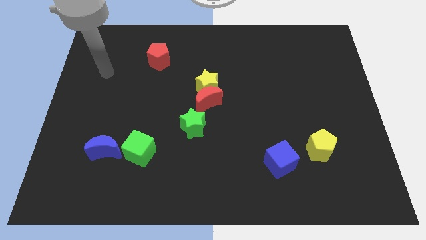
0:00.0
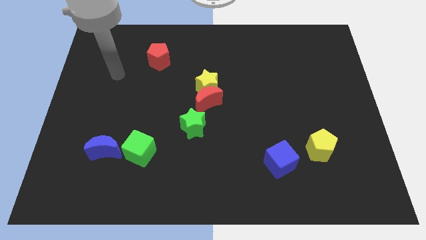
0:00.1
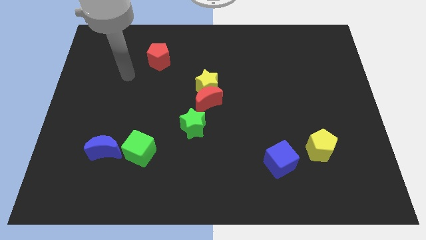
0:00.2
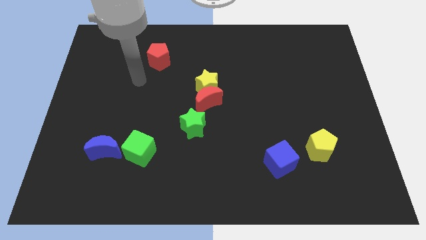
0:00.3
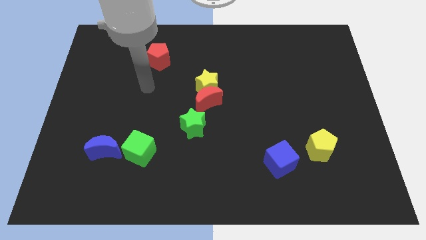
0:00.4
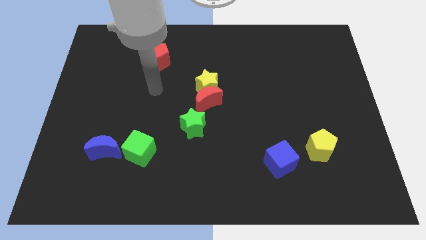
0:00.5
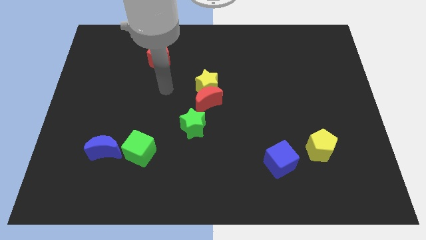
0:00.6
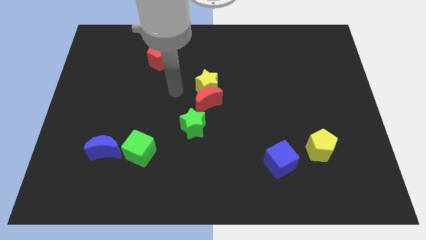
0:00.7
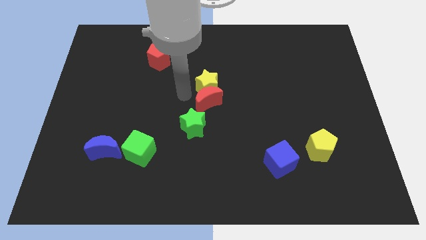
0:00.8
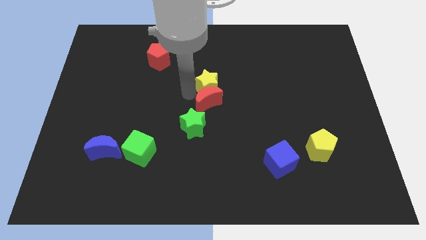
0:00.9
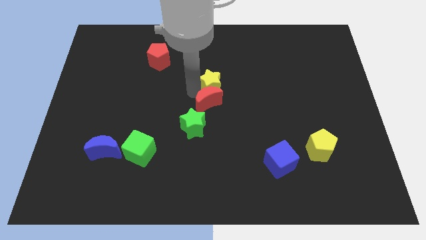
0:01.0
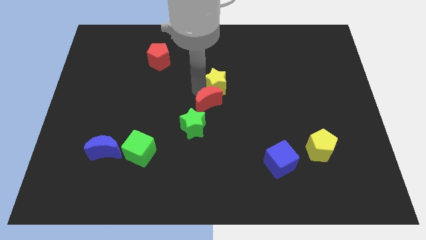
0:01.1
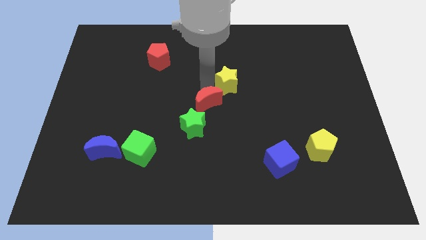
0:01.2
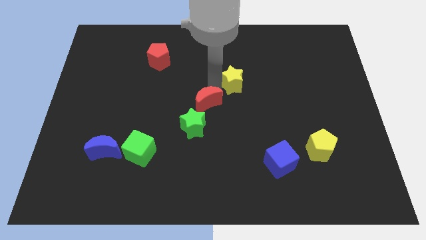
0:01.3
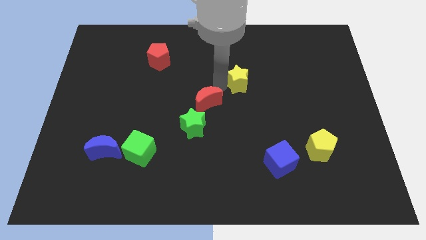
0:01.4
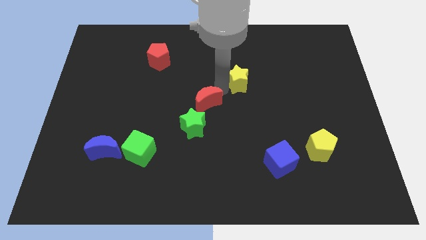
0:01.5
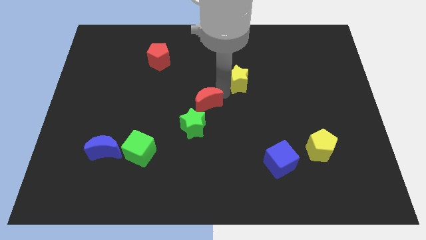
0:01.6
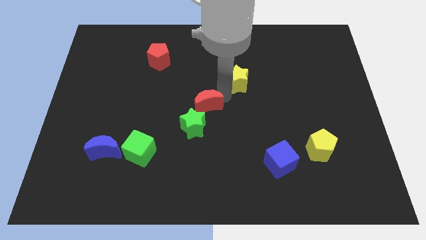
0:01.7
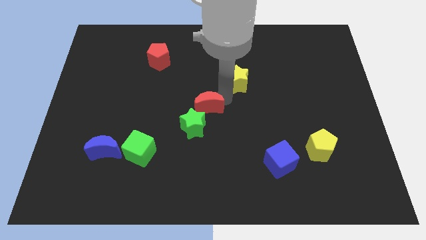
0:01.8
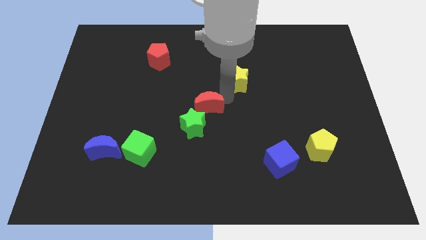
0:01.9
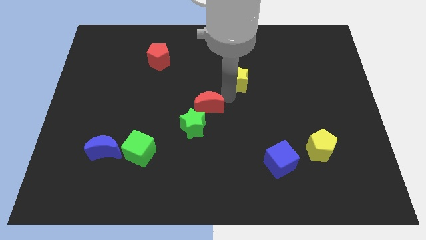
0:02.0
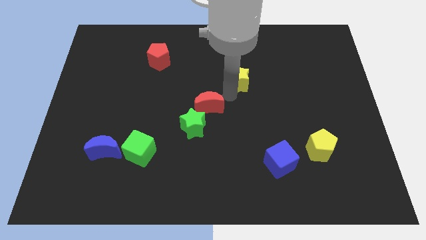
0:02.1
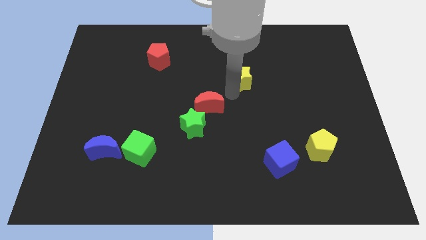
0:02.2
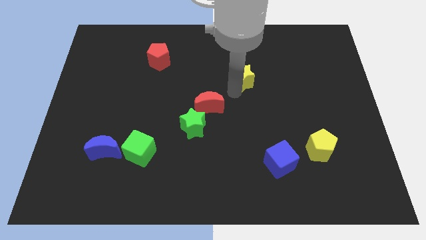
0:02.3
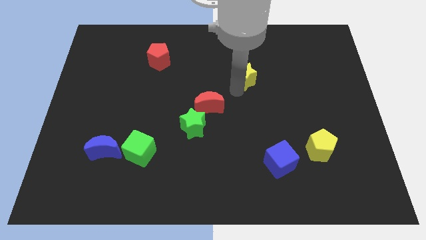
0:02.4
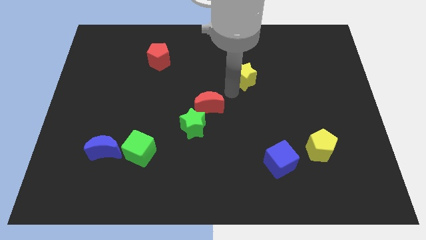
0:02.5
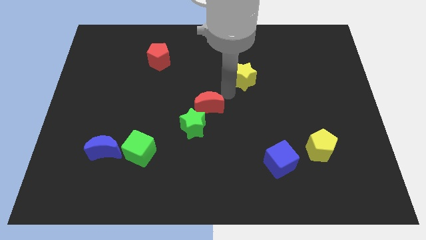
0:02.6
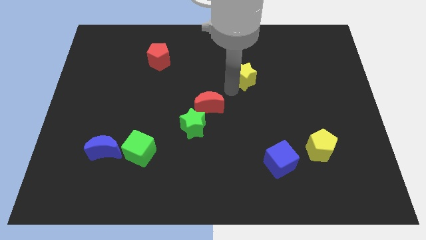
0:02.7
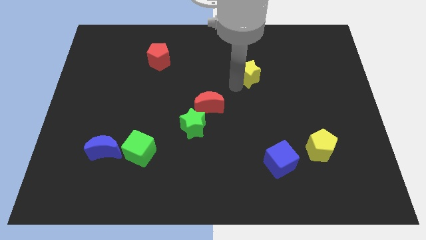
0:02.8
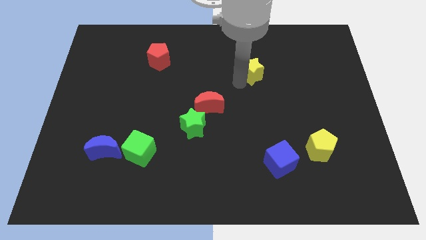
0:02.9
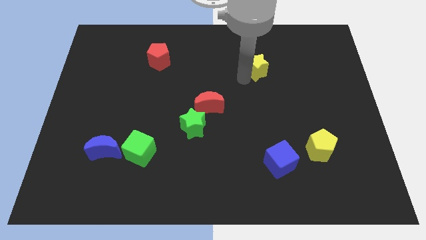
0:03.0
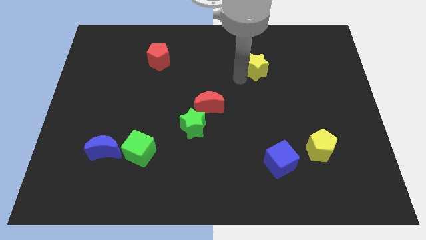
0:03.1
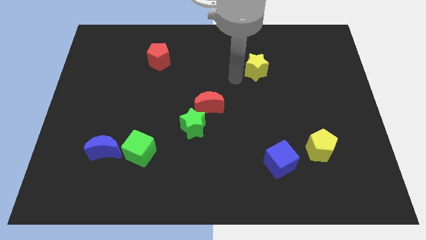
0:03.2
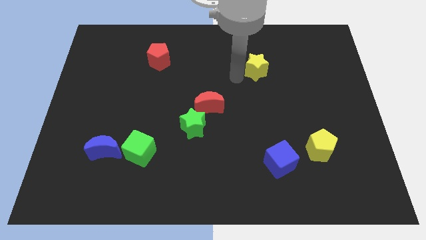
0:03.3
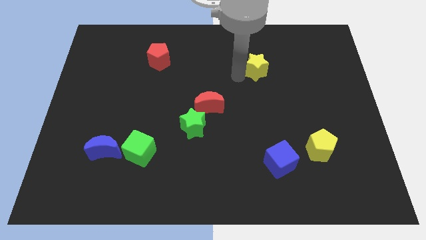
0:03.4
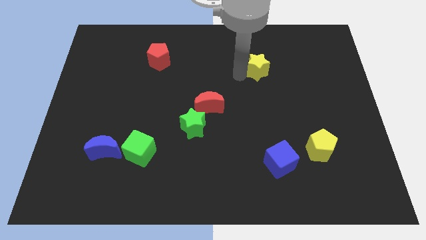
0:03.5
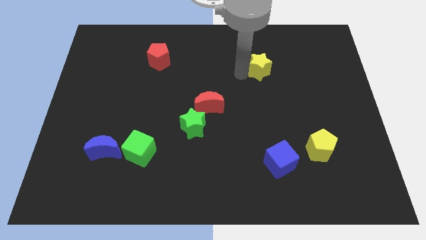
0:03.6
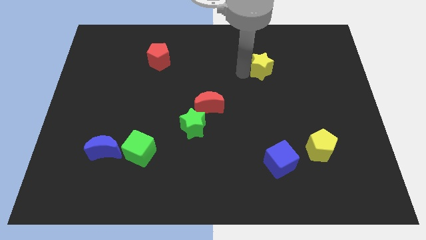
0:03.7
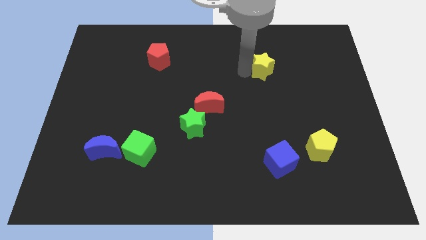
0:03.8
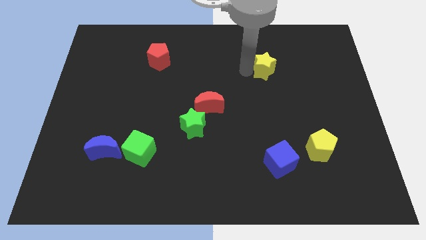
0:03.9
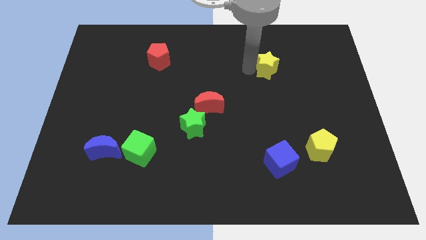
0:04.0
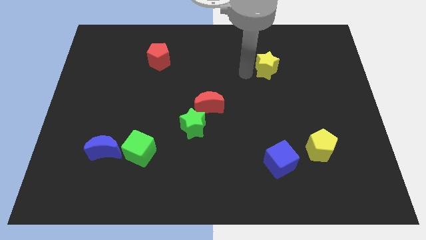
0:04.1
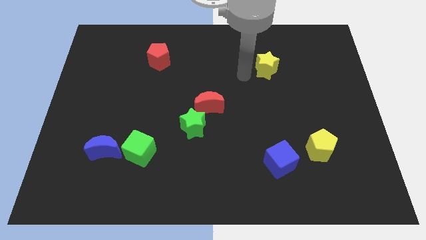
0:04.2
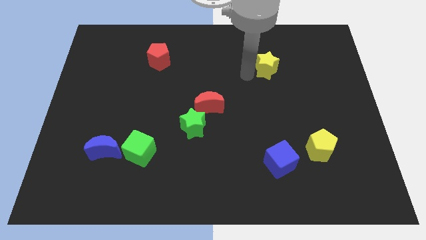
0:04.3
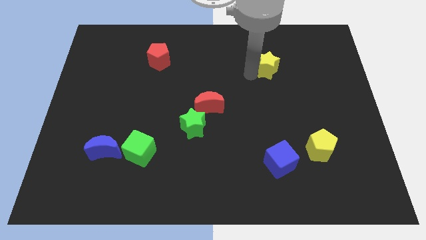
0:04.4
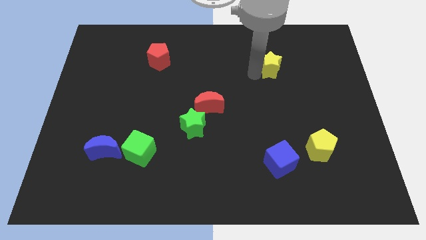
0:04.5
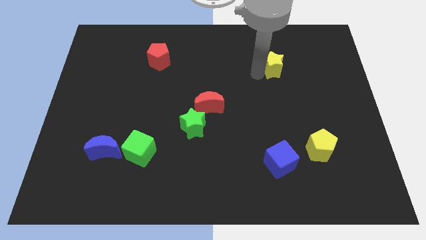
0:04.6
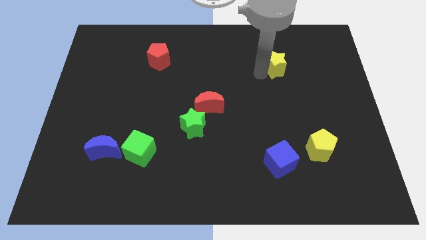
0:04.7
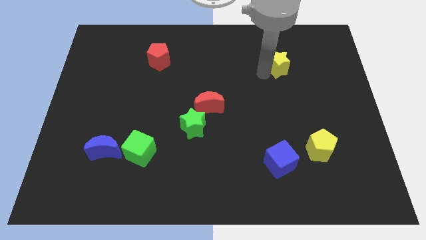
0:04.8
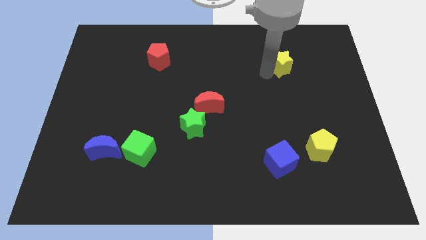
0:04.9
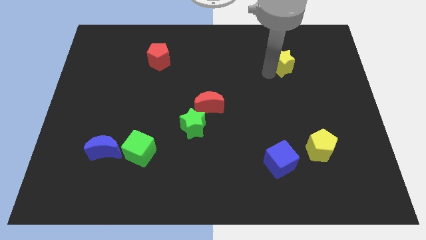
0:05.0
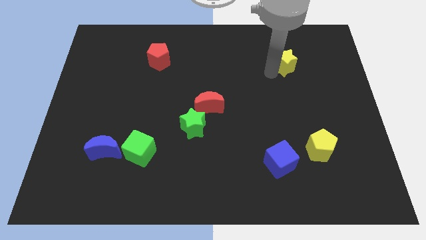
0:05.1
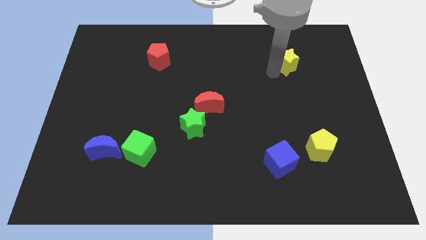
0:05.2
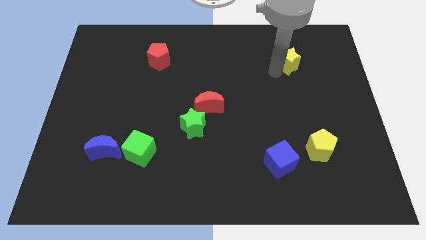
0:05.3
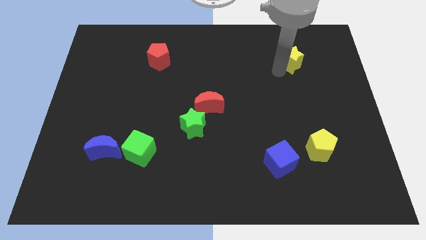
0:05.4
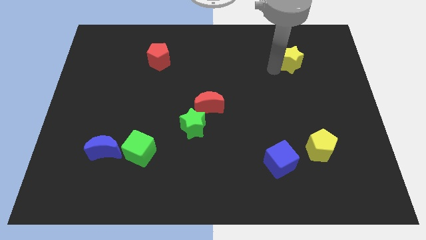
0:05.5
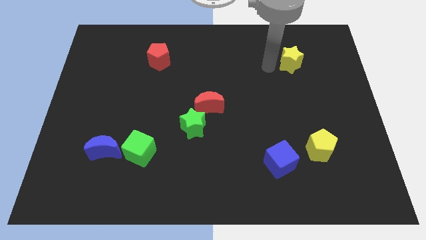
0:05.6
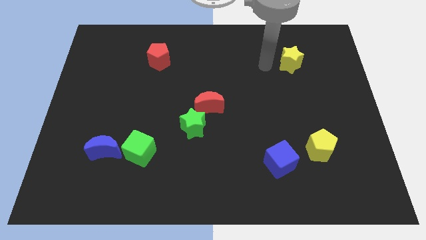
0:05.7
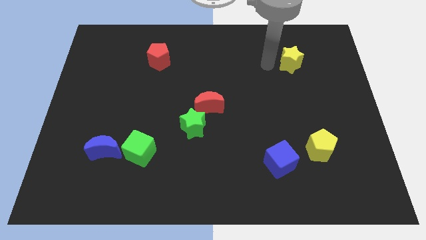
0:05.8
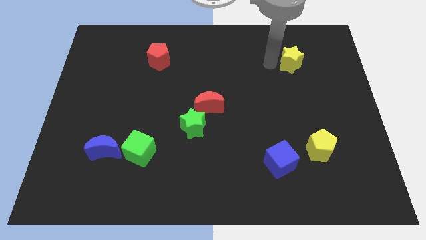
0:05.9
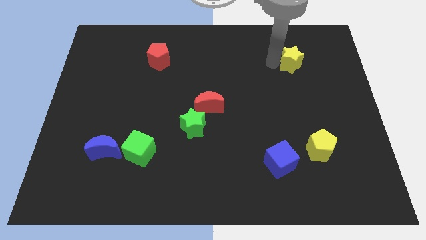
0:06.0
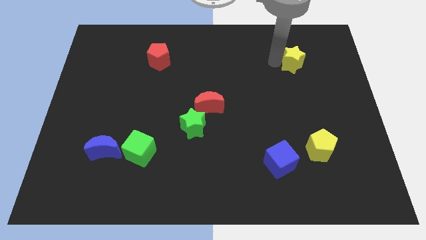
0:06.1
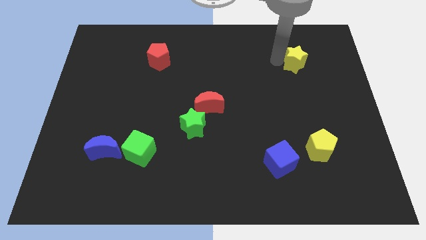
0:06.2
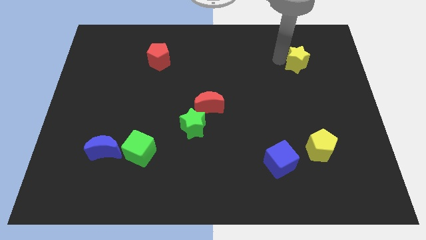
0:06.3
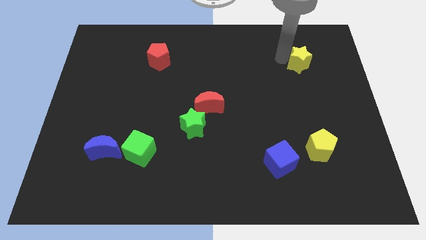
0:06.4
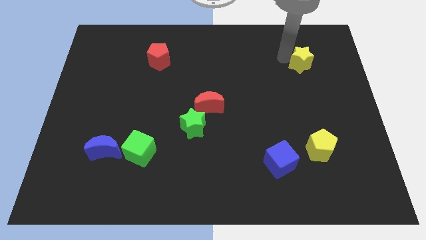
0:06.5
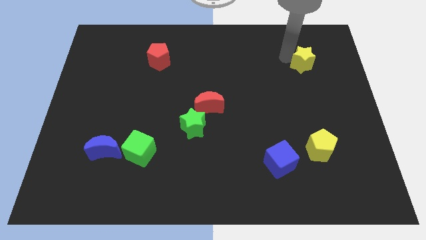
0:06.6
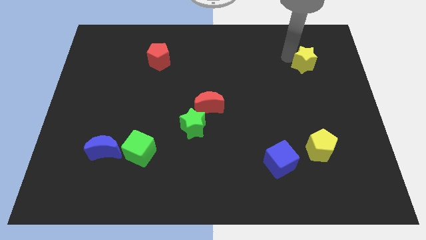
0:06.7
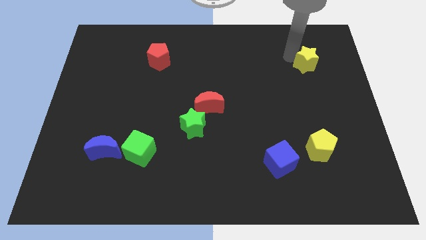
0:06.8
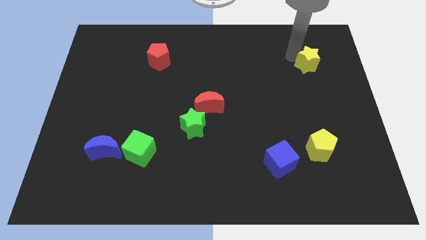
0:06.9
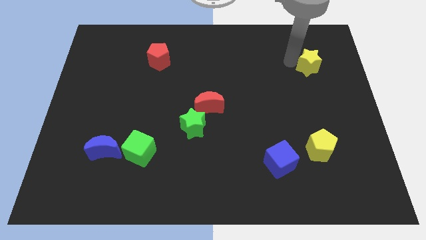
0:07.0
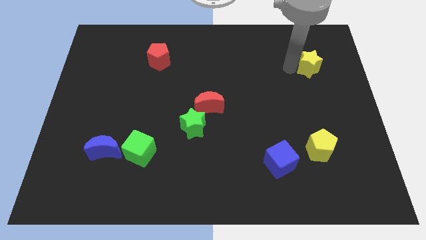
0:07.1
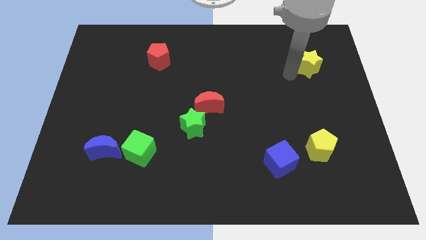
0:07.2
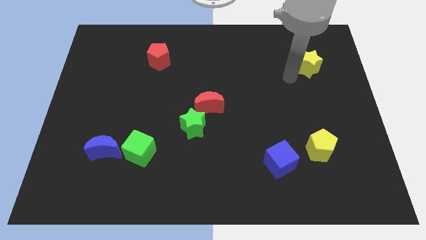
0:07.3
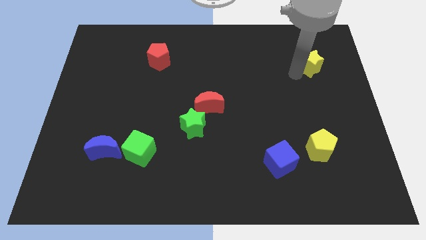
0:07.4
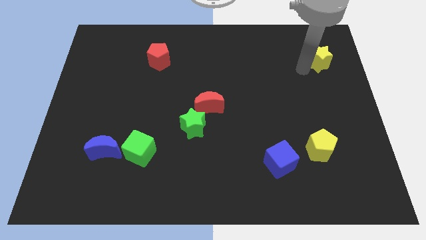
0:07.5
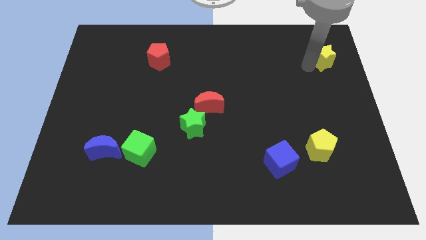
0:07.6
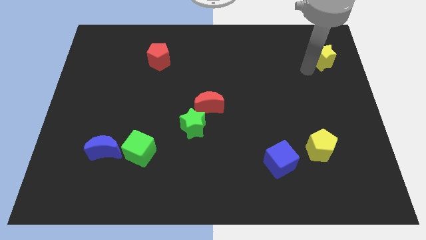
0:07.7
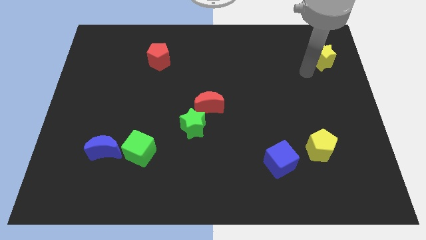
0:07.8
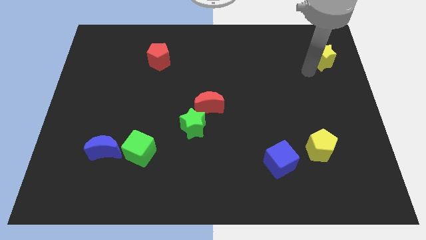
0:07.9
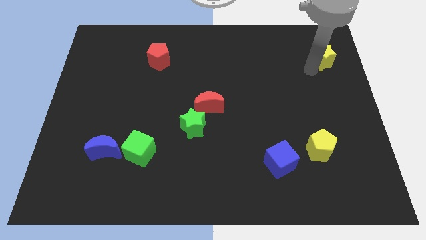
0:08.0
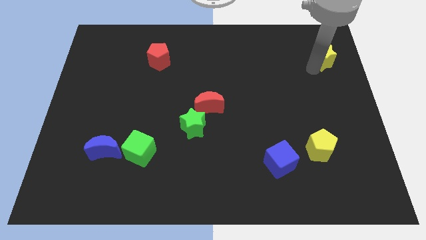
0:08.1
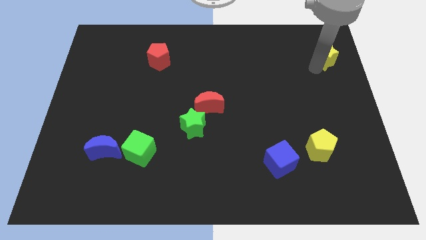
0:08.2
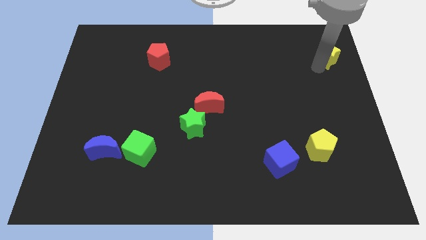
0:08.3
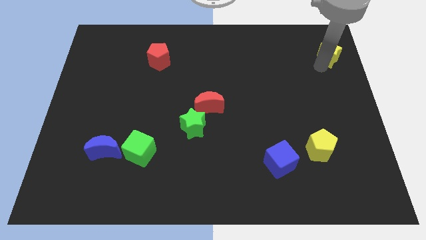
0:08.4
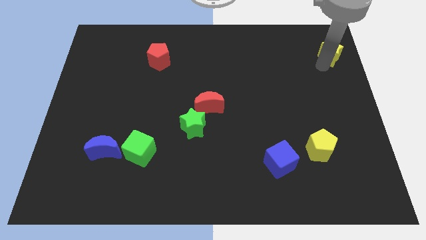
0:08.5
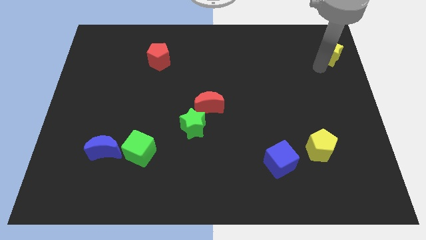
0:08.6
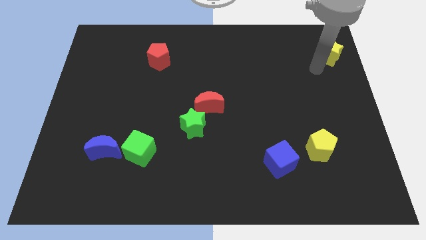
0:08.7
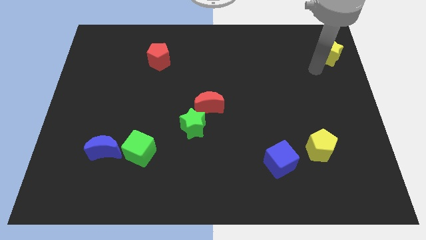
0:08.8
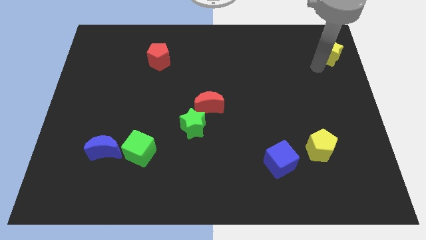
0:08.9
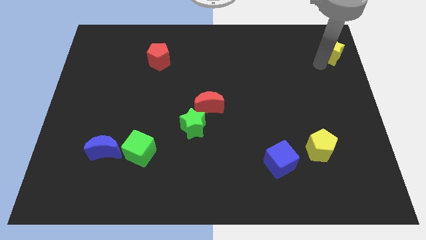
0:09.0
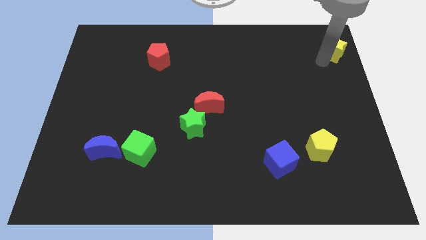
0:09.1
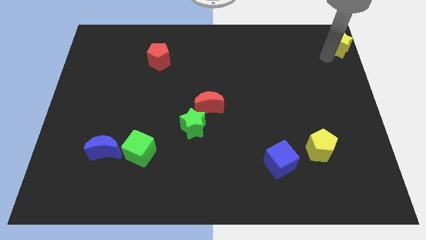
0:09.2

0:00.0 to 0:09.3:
put the yellow star to the top right of the board
